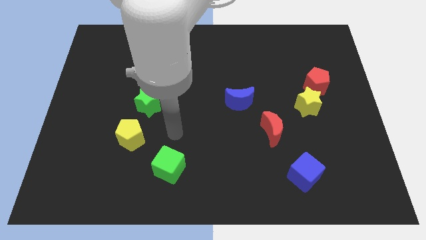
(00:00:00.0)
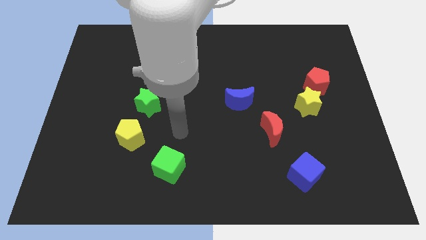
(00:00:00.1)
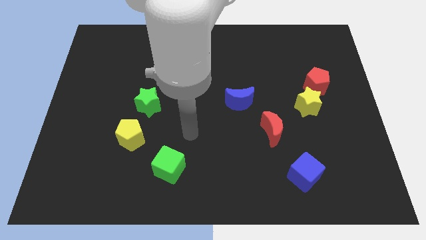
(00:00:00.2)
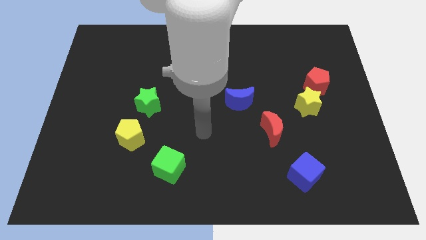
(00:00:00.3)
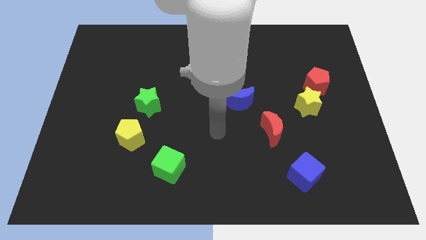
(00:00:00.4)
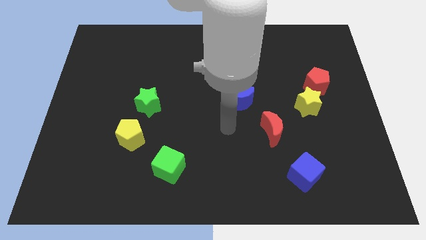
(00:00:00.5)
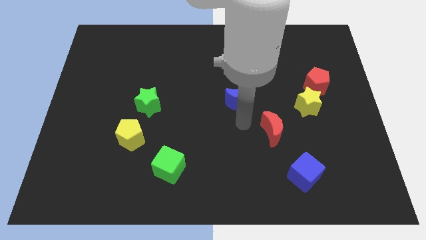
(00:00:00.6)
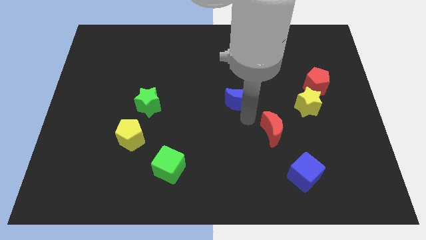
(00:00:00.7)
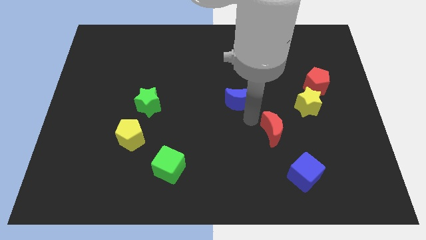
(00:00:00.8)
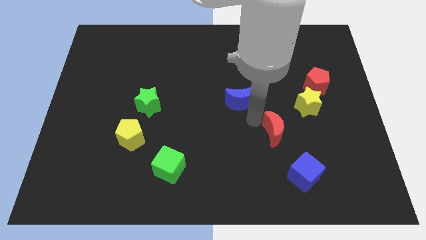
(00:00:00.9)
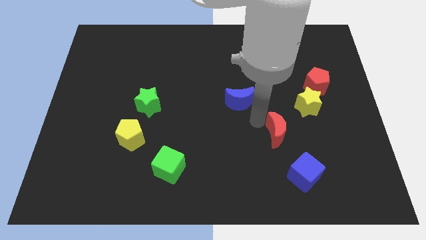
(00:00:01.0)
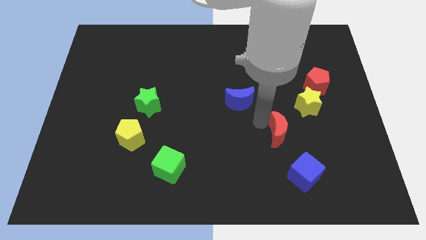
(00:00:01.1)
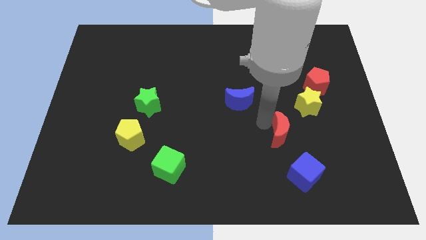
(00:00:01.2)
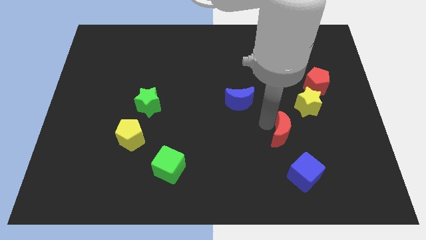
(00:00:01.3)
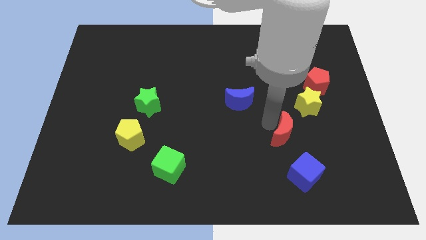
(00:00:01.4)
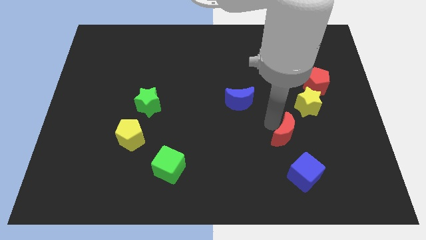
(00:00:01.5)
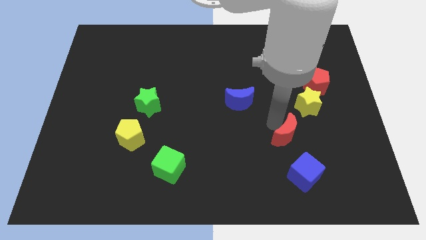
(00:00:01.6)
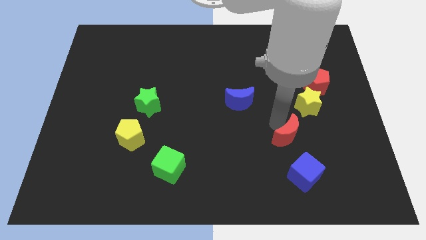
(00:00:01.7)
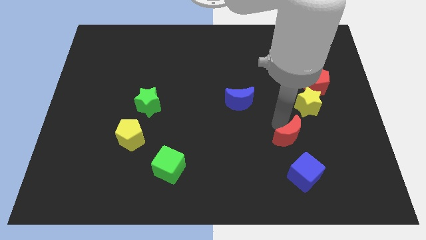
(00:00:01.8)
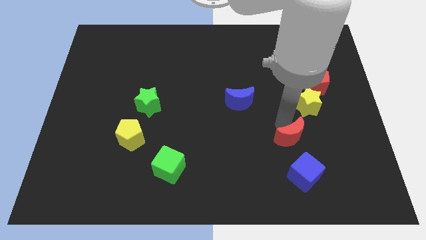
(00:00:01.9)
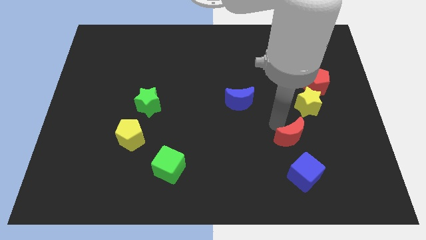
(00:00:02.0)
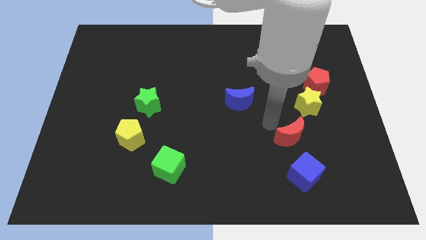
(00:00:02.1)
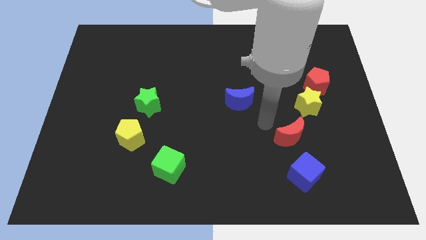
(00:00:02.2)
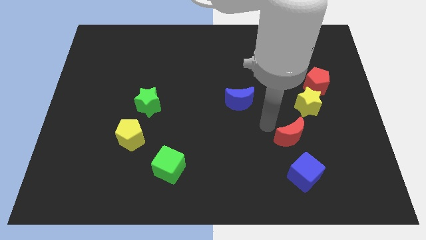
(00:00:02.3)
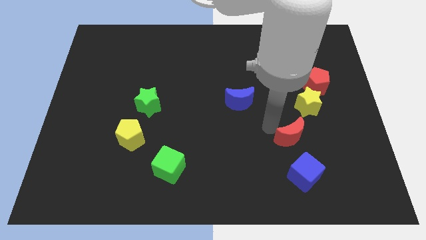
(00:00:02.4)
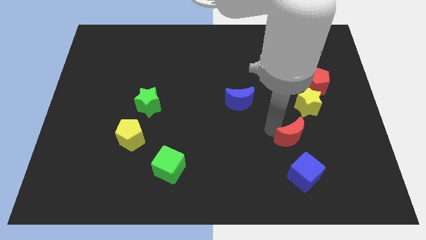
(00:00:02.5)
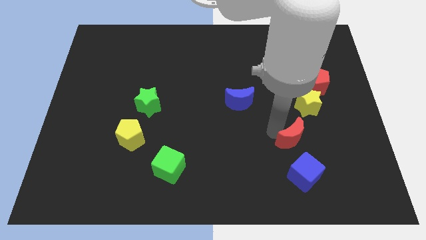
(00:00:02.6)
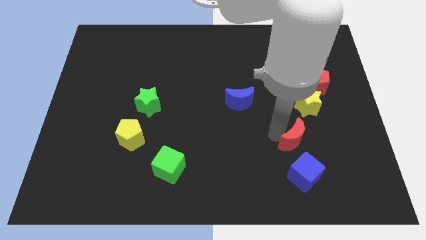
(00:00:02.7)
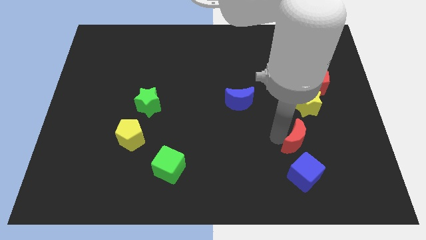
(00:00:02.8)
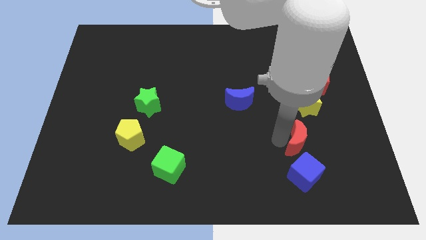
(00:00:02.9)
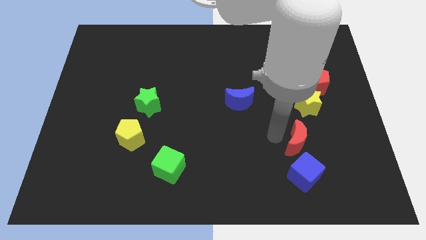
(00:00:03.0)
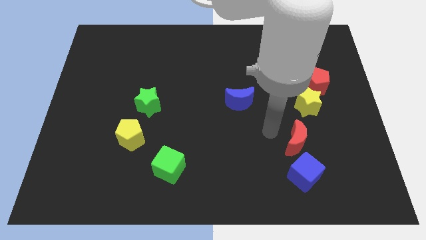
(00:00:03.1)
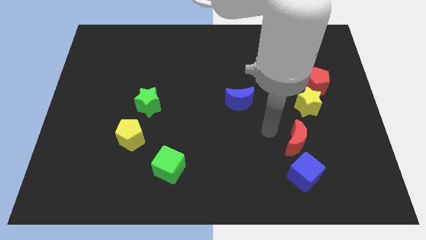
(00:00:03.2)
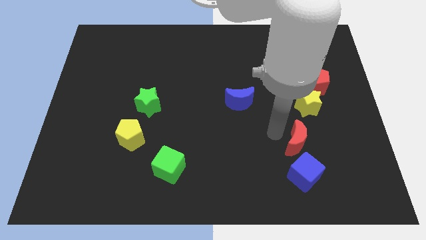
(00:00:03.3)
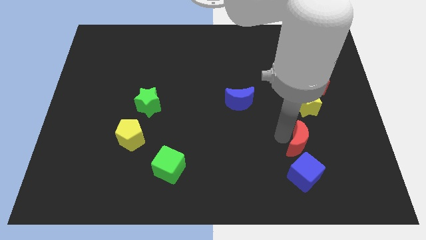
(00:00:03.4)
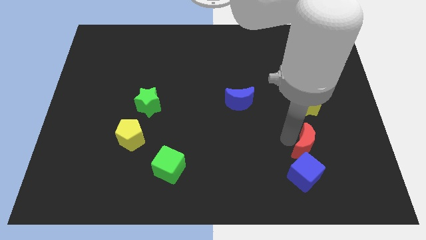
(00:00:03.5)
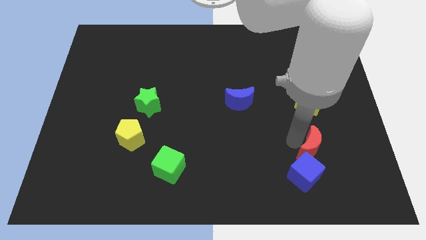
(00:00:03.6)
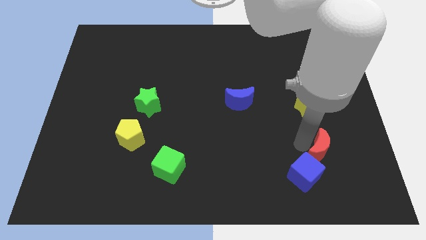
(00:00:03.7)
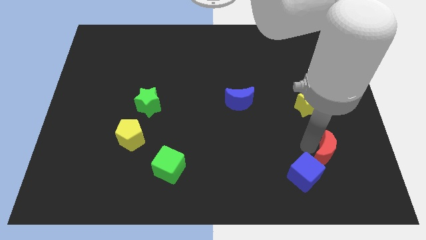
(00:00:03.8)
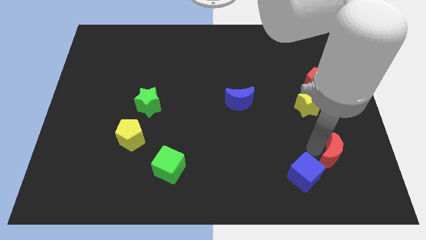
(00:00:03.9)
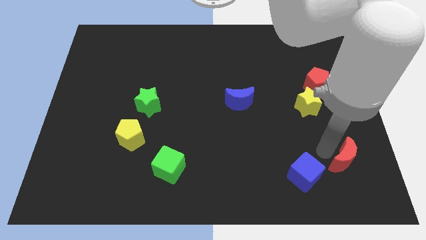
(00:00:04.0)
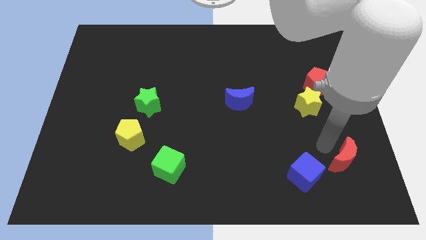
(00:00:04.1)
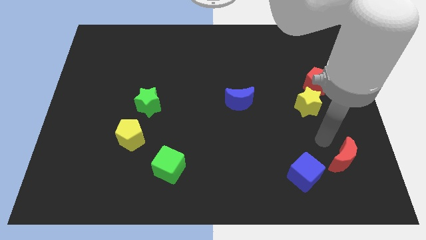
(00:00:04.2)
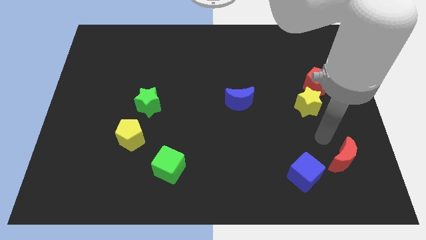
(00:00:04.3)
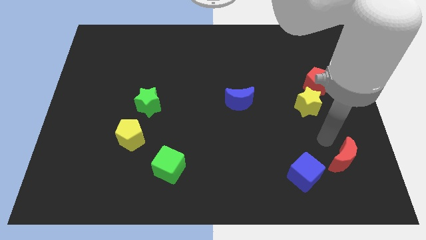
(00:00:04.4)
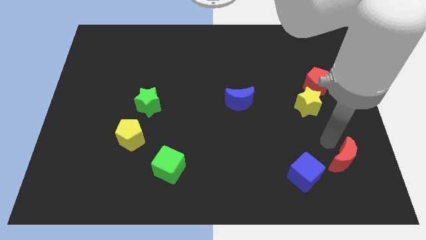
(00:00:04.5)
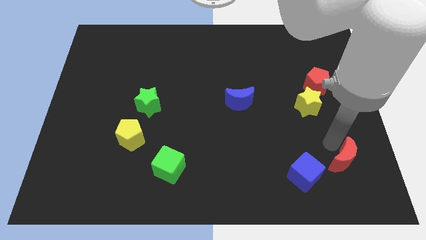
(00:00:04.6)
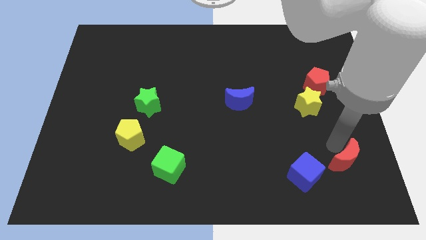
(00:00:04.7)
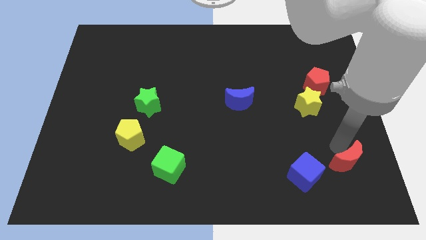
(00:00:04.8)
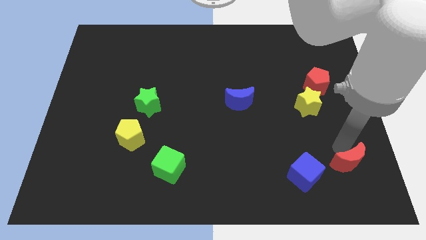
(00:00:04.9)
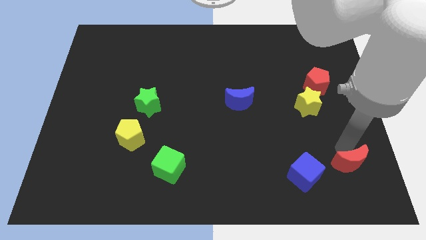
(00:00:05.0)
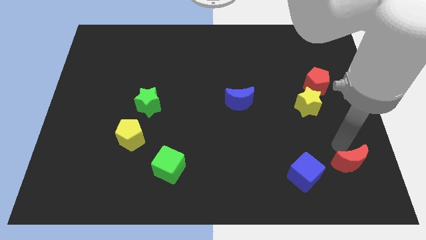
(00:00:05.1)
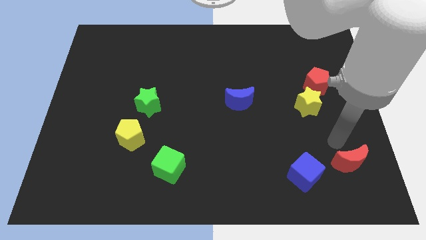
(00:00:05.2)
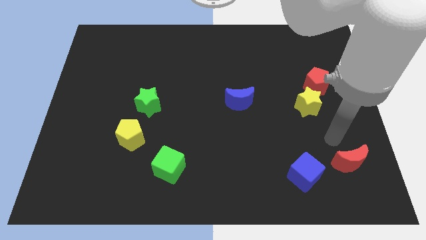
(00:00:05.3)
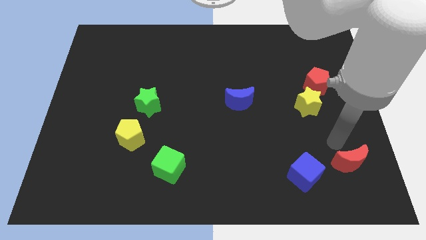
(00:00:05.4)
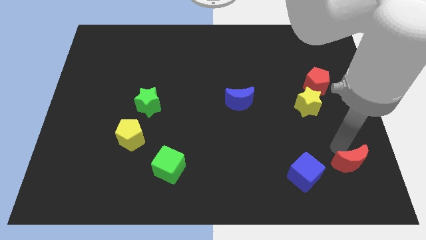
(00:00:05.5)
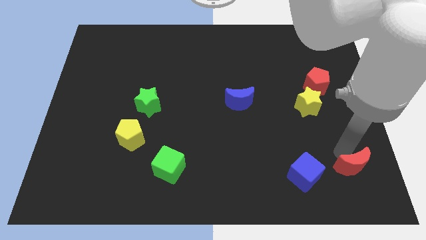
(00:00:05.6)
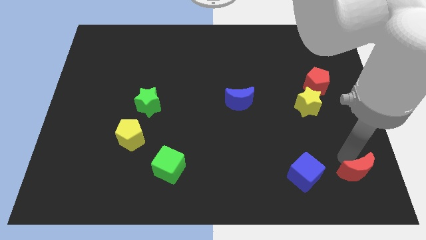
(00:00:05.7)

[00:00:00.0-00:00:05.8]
put the red moon to the lower right corner
